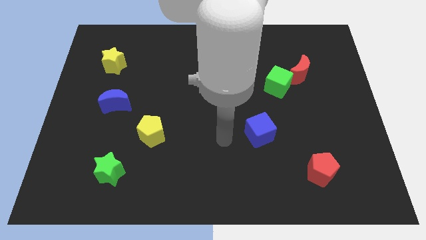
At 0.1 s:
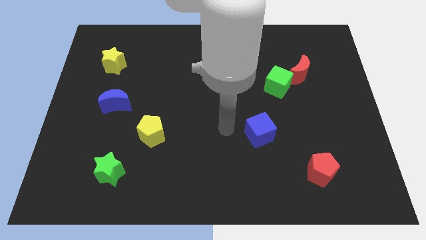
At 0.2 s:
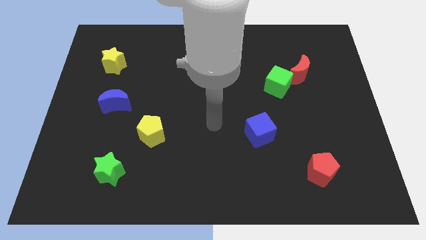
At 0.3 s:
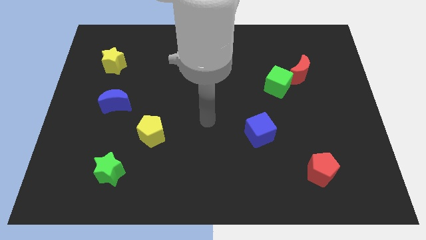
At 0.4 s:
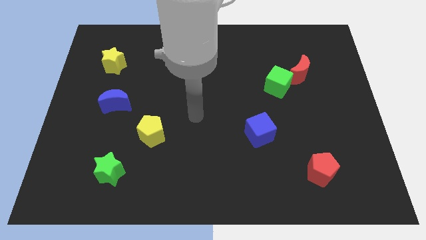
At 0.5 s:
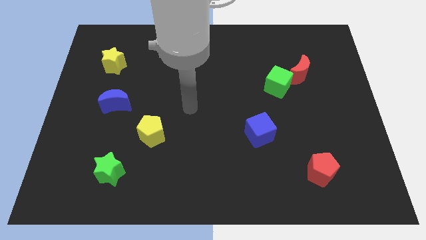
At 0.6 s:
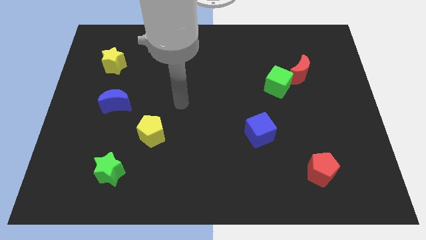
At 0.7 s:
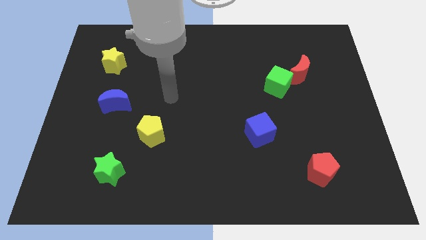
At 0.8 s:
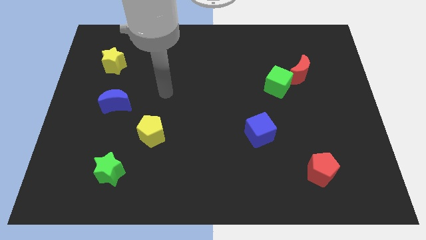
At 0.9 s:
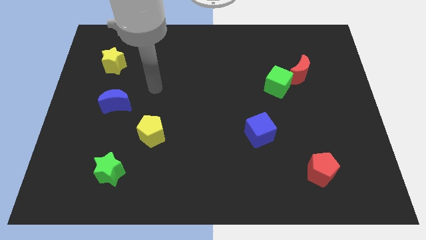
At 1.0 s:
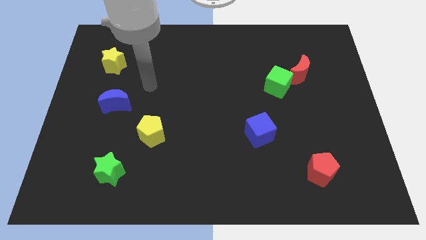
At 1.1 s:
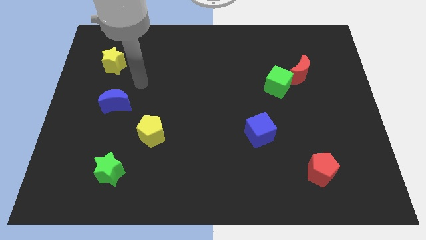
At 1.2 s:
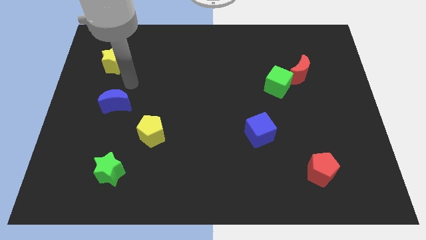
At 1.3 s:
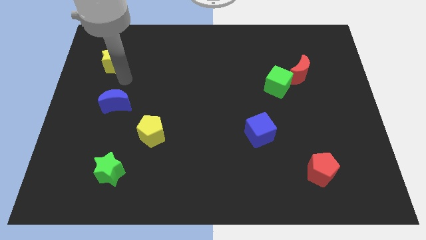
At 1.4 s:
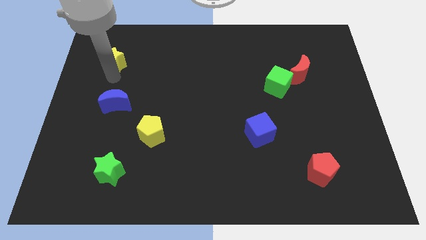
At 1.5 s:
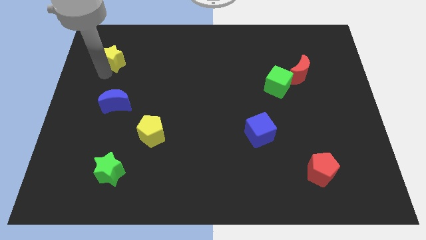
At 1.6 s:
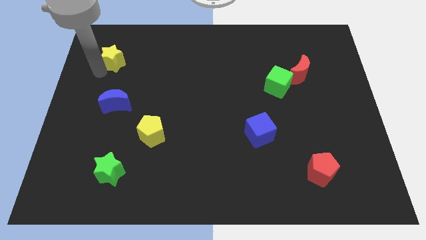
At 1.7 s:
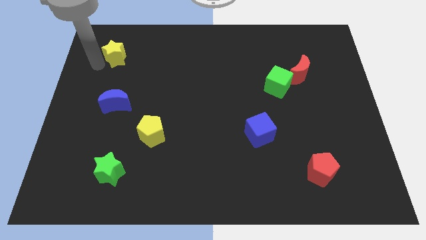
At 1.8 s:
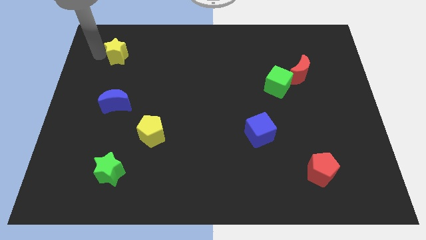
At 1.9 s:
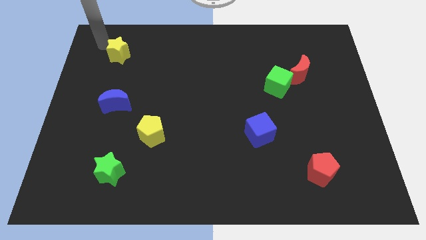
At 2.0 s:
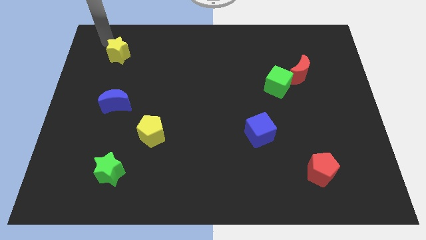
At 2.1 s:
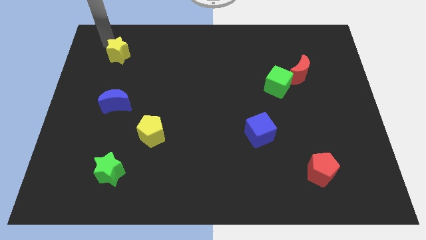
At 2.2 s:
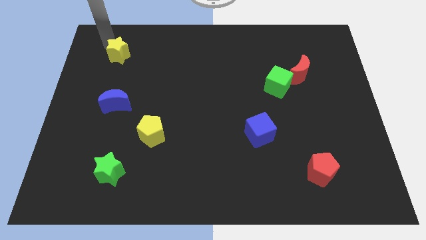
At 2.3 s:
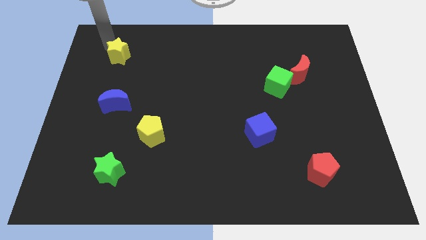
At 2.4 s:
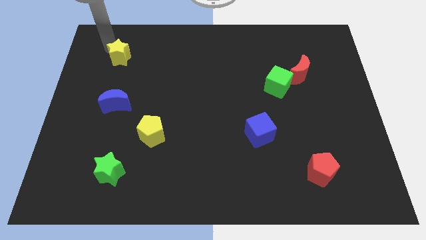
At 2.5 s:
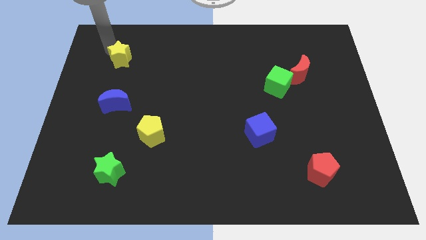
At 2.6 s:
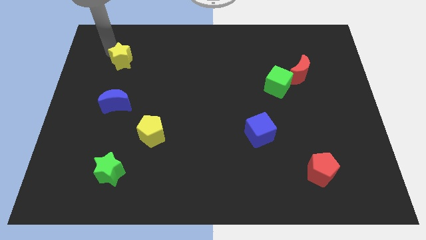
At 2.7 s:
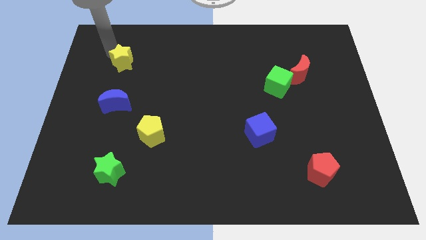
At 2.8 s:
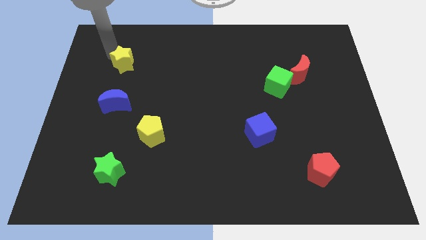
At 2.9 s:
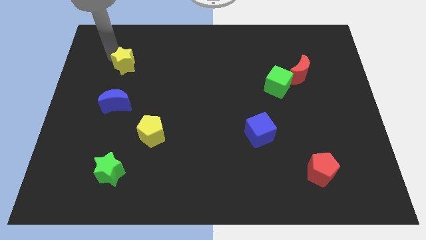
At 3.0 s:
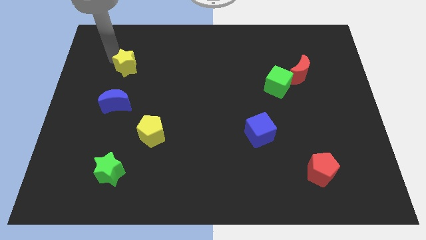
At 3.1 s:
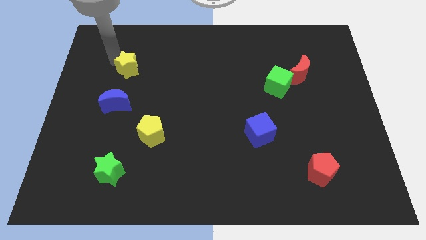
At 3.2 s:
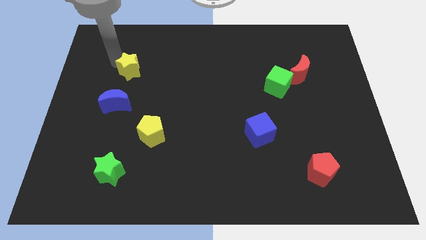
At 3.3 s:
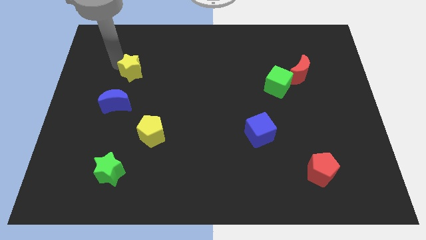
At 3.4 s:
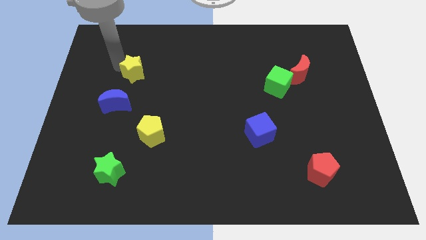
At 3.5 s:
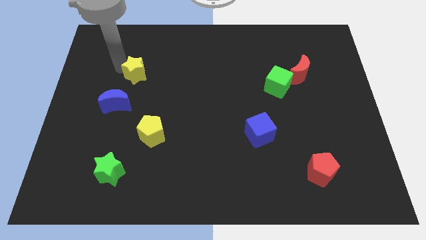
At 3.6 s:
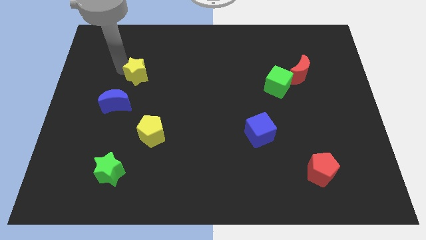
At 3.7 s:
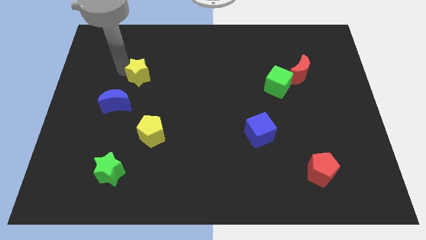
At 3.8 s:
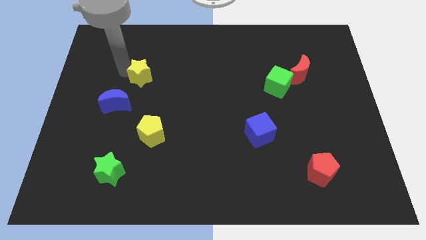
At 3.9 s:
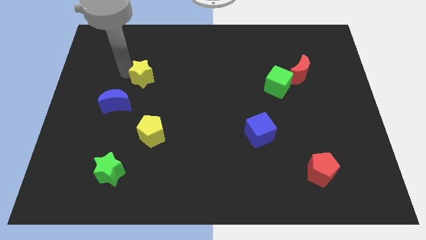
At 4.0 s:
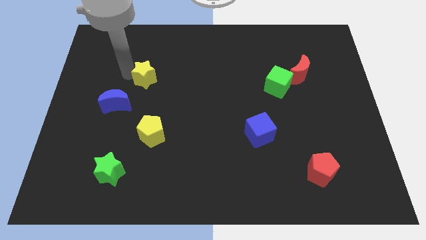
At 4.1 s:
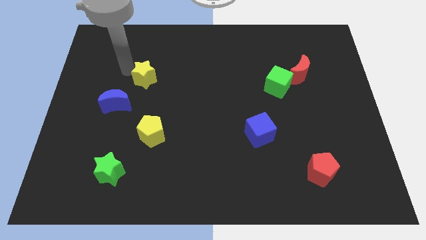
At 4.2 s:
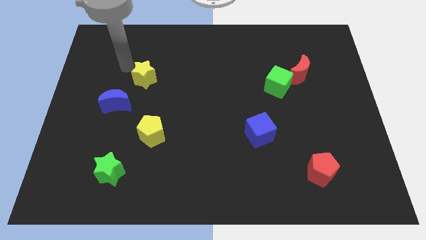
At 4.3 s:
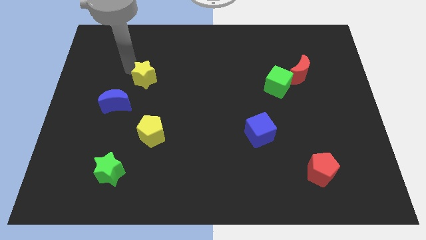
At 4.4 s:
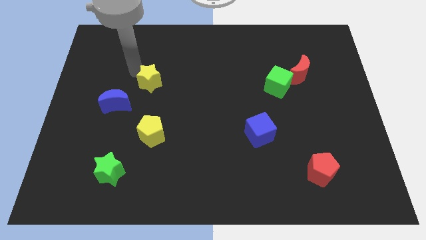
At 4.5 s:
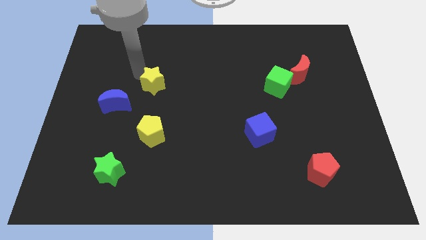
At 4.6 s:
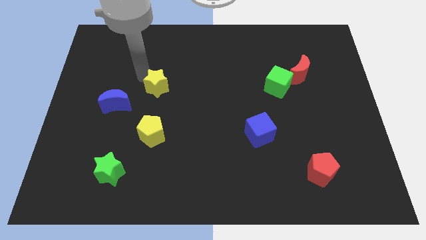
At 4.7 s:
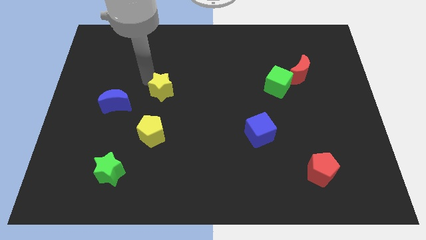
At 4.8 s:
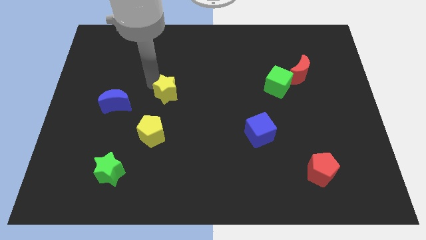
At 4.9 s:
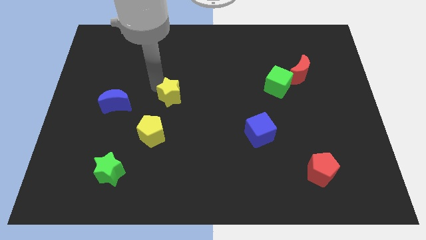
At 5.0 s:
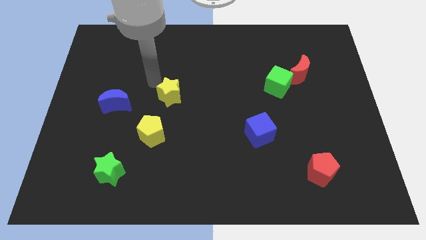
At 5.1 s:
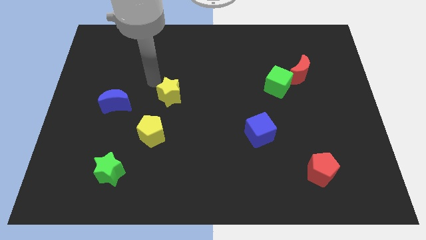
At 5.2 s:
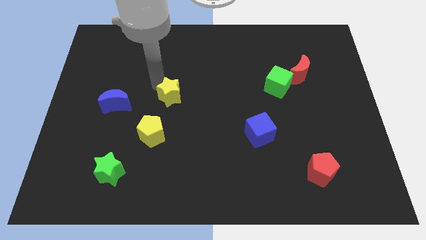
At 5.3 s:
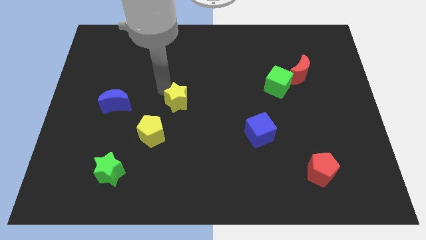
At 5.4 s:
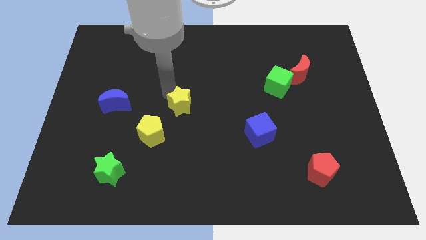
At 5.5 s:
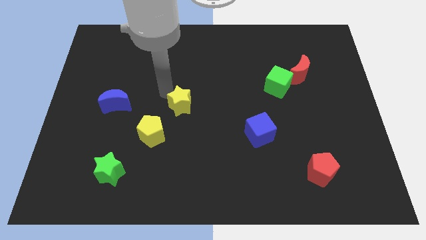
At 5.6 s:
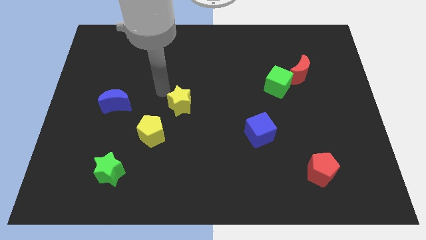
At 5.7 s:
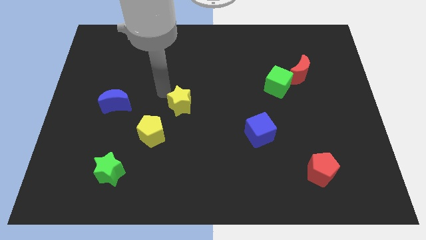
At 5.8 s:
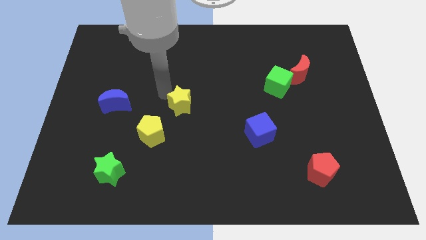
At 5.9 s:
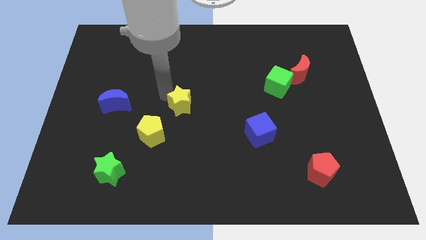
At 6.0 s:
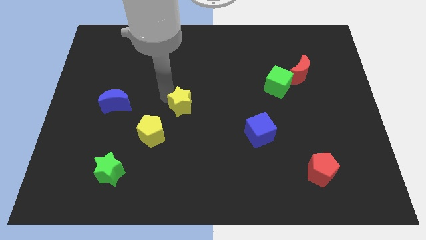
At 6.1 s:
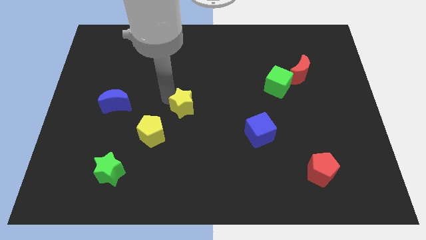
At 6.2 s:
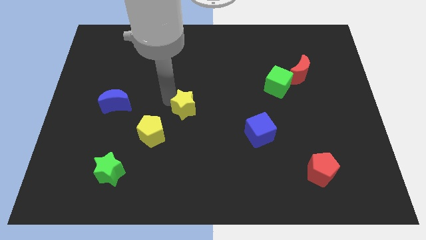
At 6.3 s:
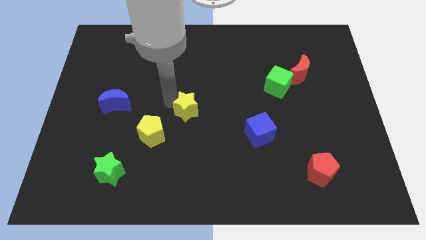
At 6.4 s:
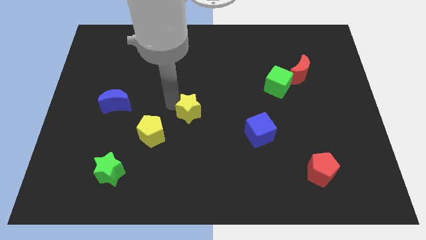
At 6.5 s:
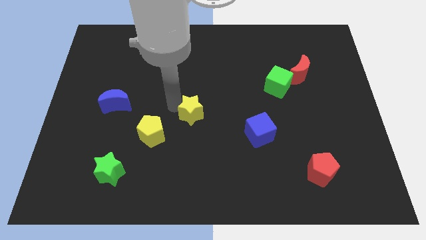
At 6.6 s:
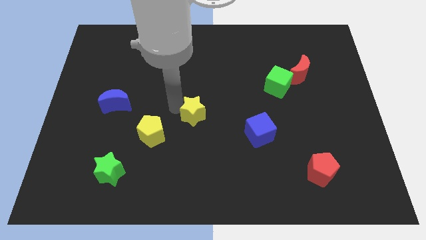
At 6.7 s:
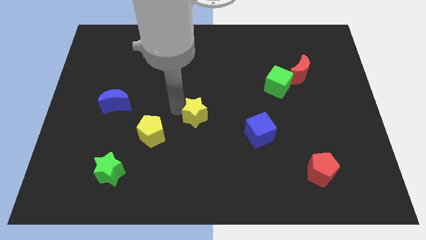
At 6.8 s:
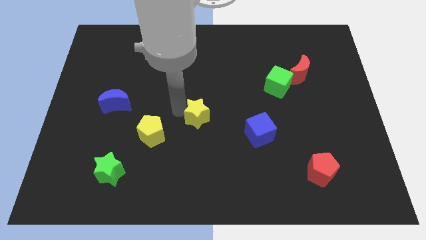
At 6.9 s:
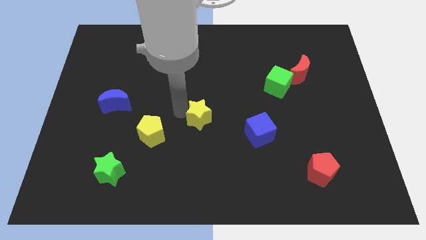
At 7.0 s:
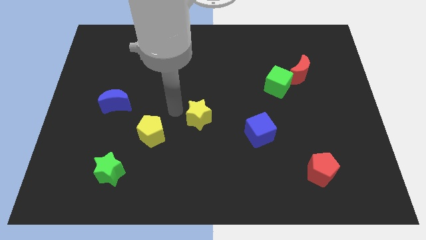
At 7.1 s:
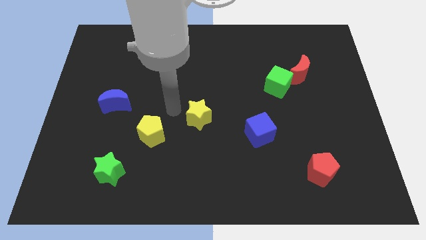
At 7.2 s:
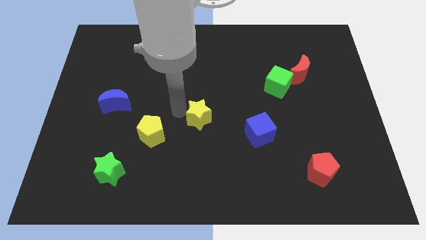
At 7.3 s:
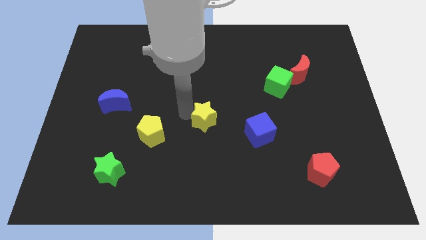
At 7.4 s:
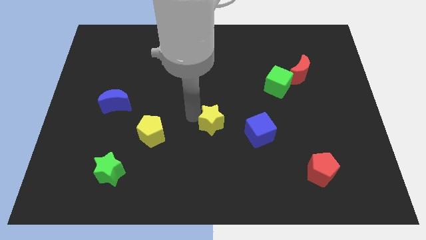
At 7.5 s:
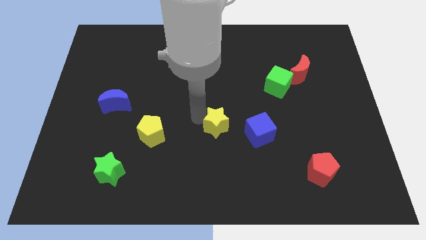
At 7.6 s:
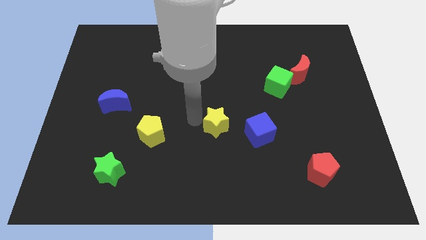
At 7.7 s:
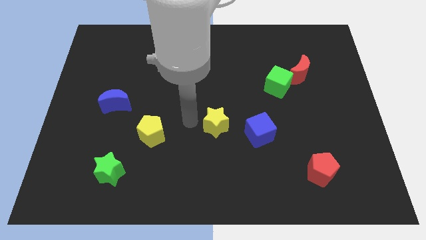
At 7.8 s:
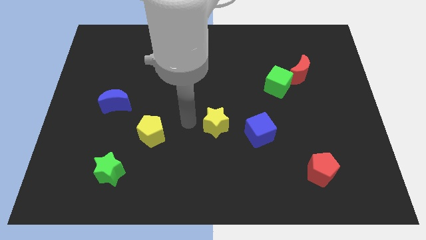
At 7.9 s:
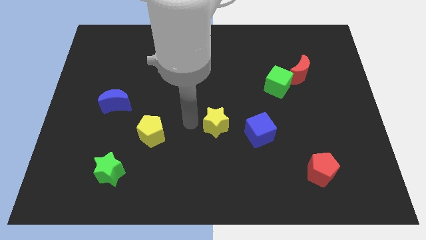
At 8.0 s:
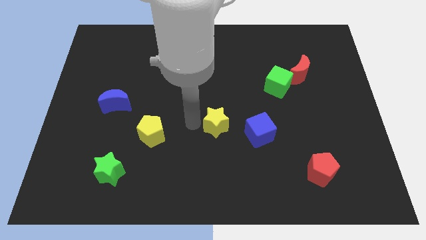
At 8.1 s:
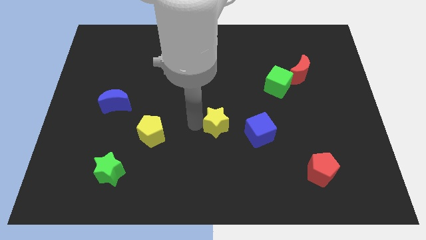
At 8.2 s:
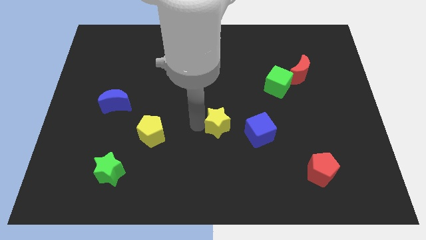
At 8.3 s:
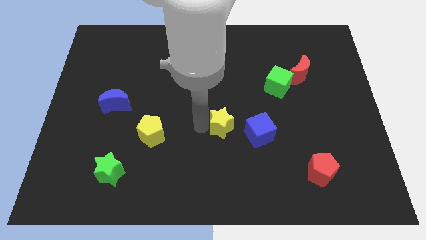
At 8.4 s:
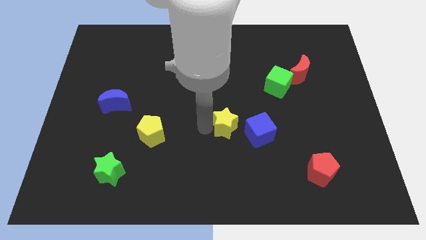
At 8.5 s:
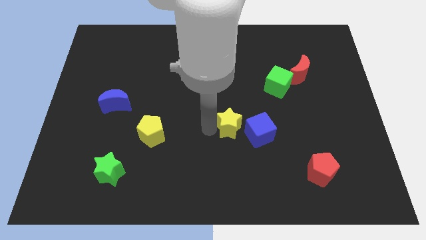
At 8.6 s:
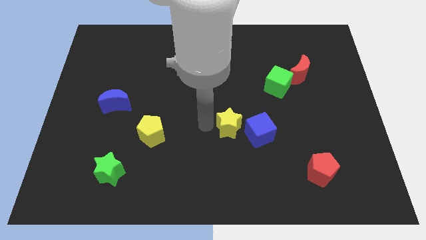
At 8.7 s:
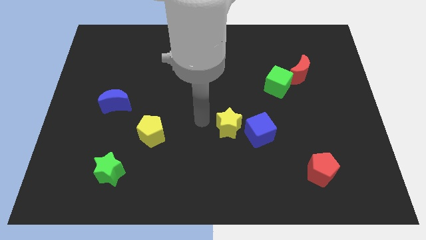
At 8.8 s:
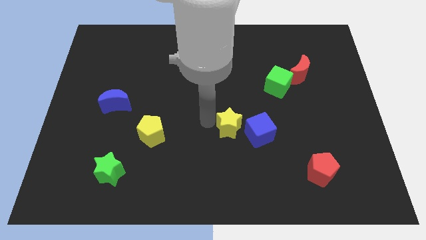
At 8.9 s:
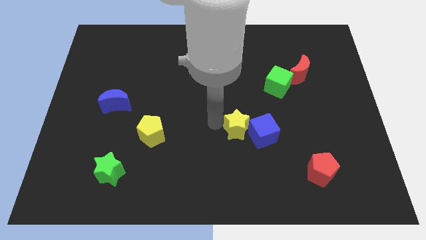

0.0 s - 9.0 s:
push the yellow star close to the blue cube
